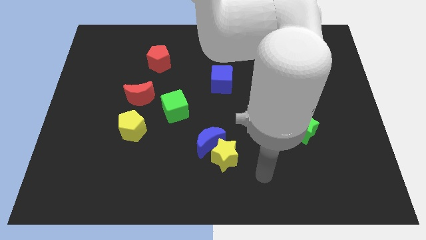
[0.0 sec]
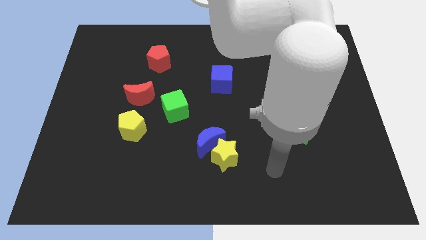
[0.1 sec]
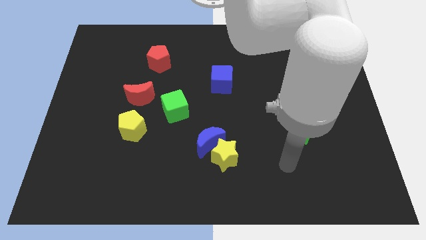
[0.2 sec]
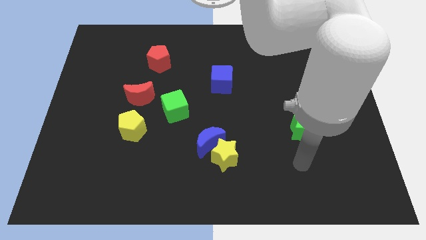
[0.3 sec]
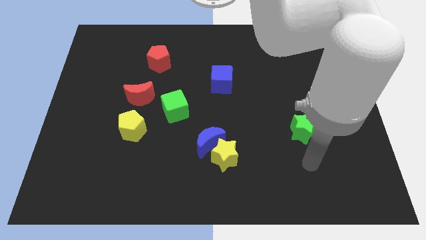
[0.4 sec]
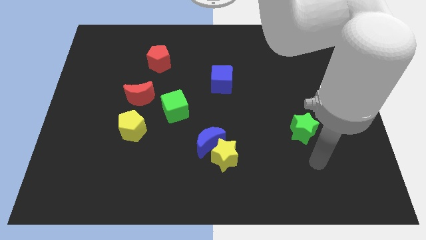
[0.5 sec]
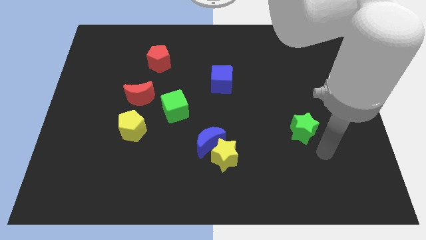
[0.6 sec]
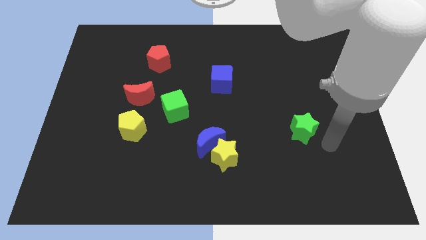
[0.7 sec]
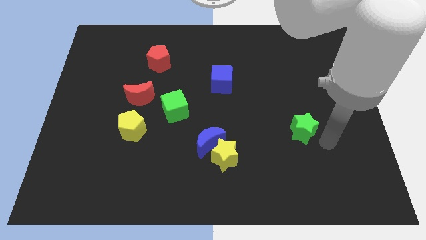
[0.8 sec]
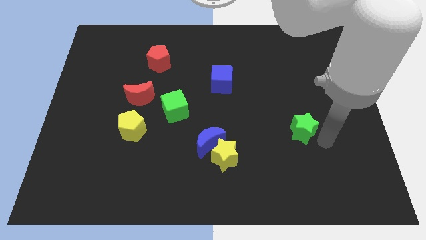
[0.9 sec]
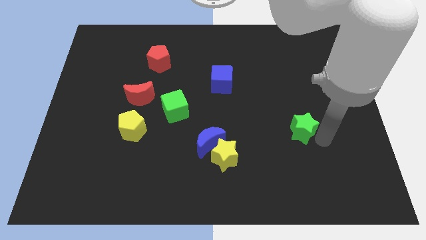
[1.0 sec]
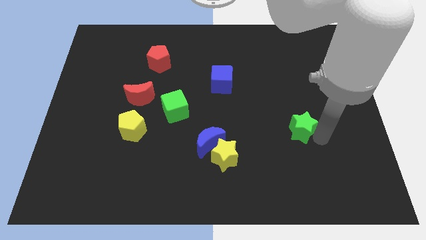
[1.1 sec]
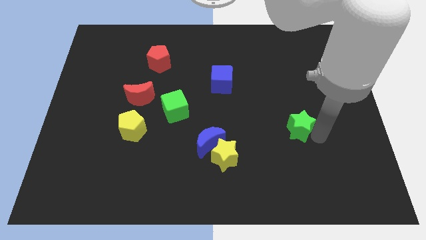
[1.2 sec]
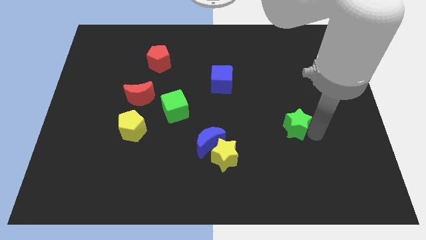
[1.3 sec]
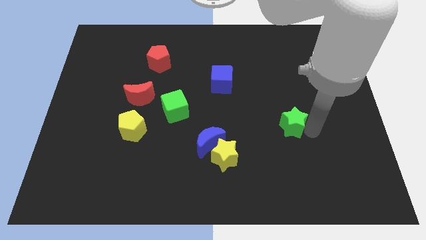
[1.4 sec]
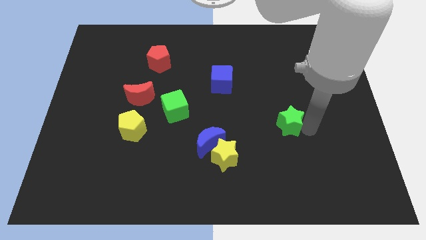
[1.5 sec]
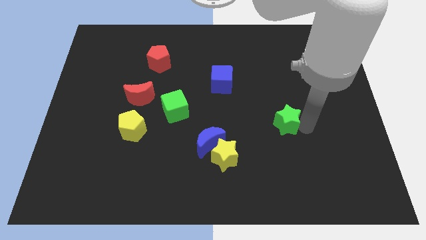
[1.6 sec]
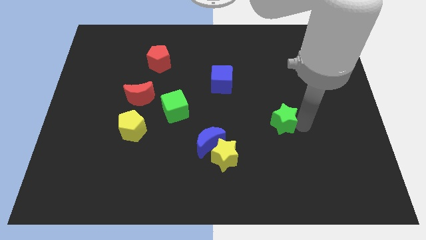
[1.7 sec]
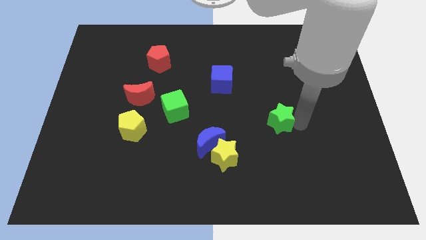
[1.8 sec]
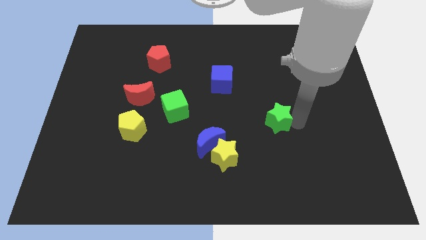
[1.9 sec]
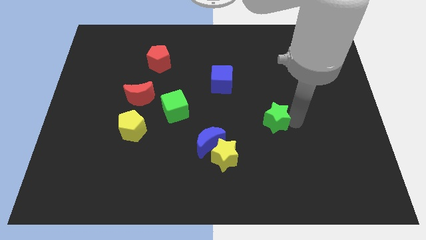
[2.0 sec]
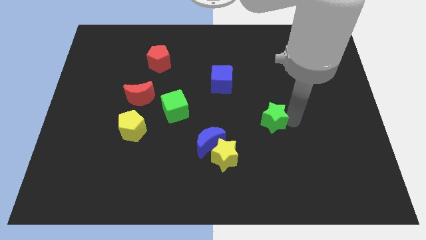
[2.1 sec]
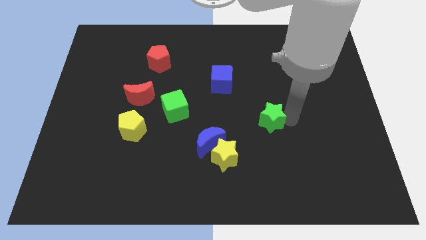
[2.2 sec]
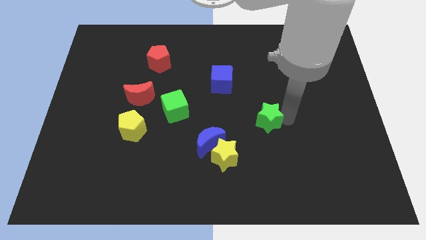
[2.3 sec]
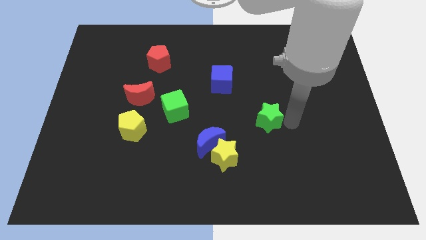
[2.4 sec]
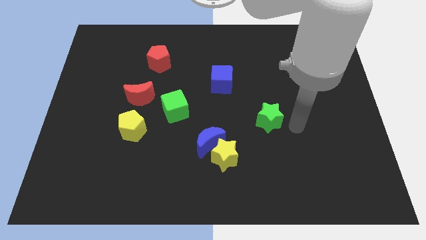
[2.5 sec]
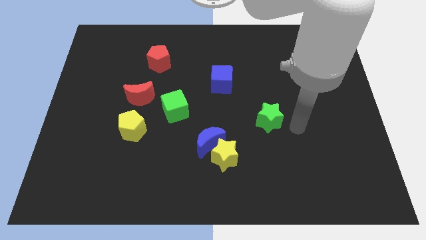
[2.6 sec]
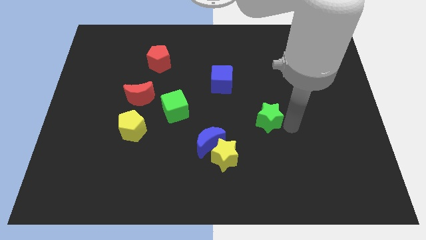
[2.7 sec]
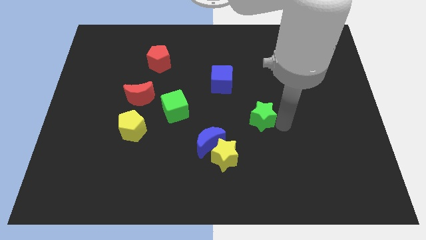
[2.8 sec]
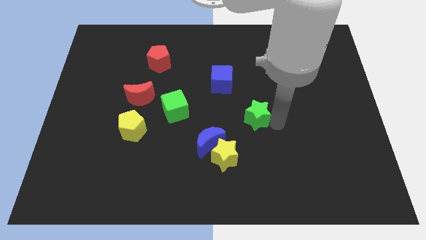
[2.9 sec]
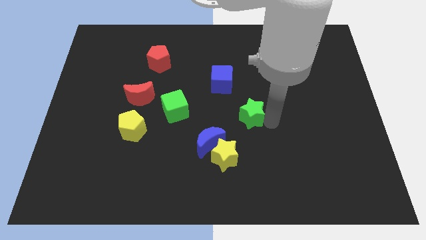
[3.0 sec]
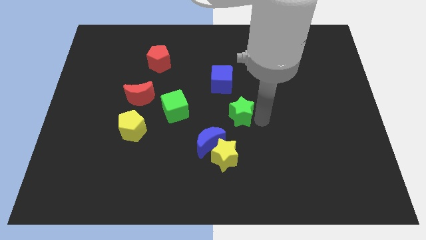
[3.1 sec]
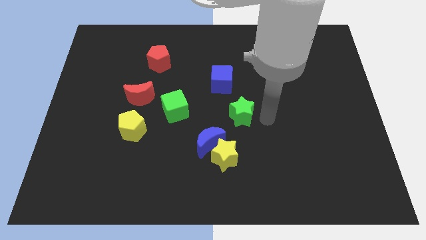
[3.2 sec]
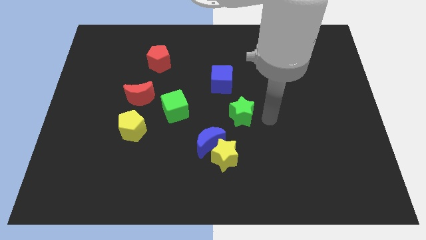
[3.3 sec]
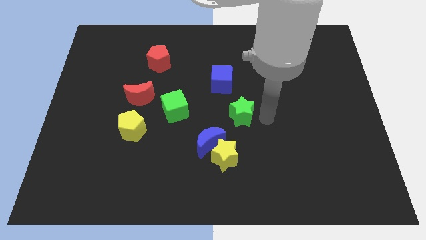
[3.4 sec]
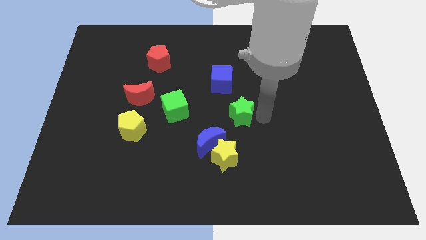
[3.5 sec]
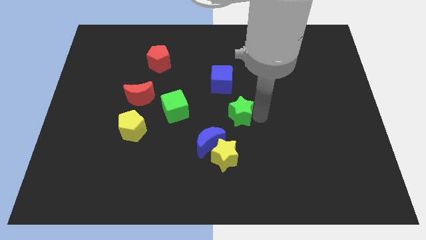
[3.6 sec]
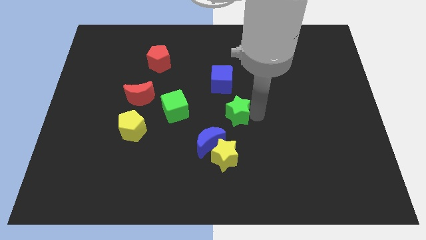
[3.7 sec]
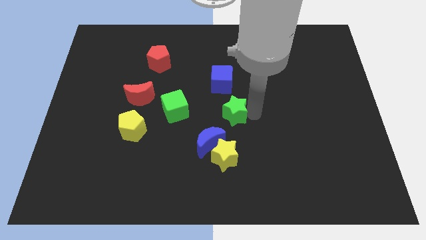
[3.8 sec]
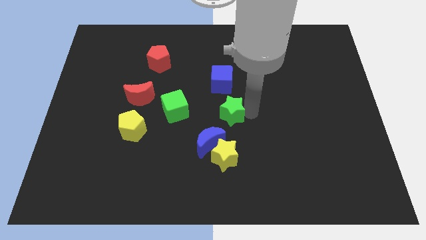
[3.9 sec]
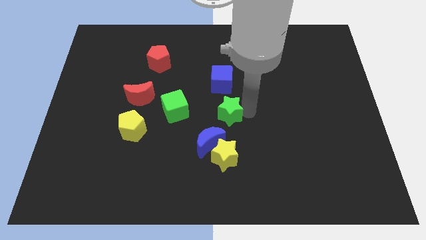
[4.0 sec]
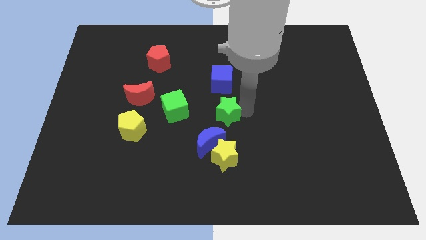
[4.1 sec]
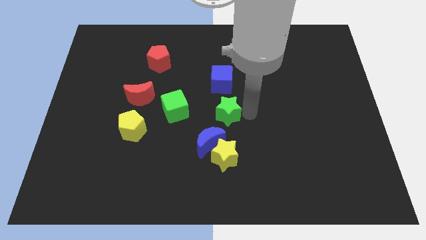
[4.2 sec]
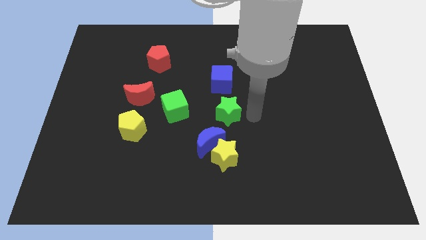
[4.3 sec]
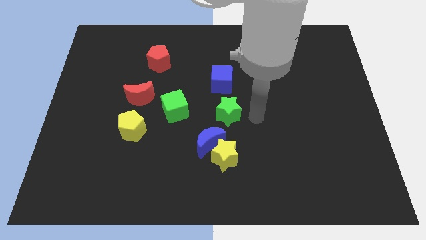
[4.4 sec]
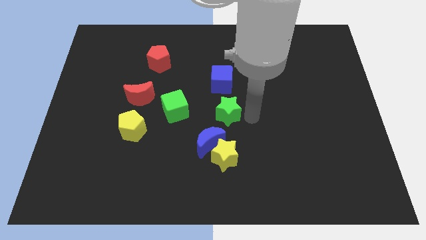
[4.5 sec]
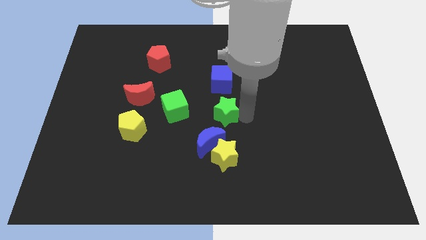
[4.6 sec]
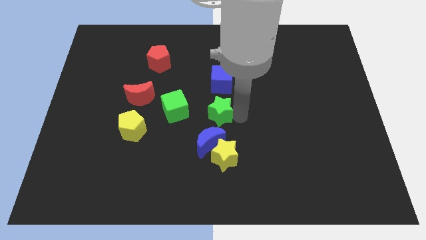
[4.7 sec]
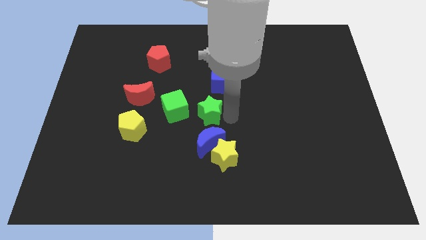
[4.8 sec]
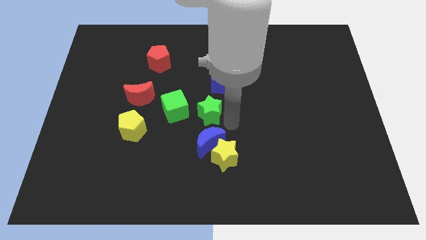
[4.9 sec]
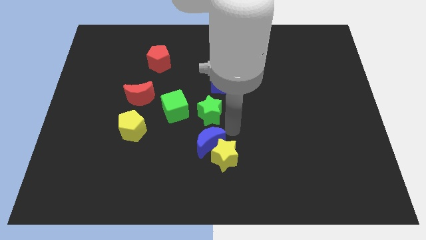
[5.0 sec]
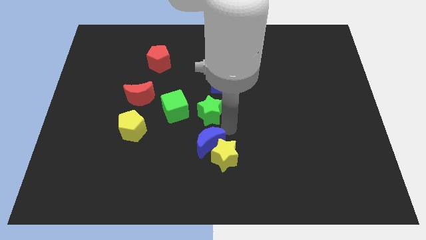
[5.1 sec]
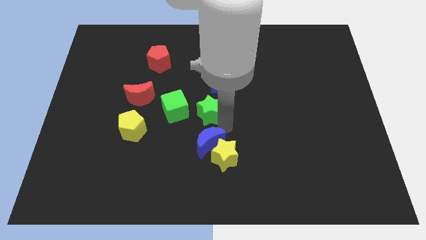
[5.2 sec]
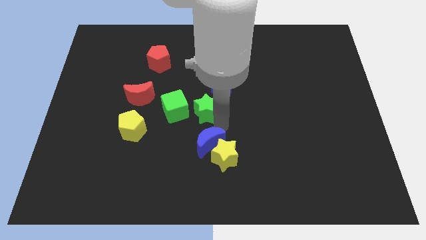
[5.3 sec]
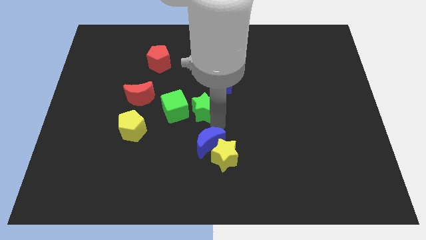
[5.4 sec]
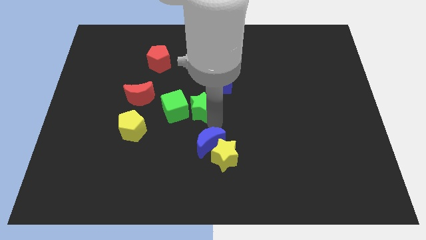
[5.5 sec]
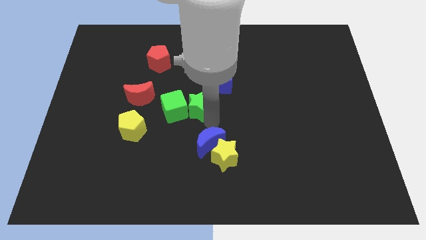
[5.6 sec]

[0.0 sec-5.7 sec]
put the green star to the right side of the red moon
